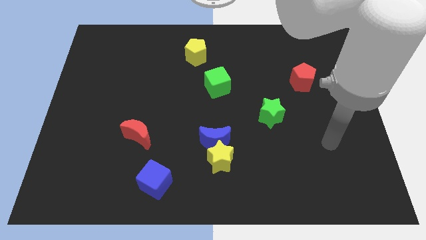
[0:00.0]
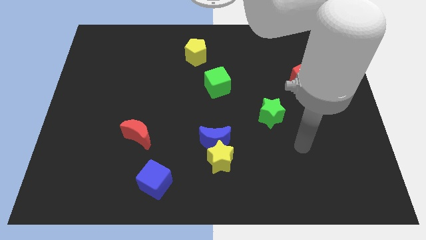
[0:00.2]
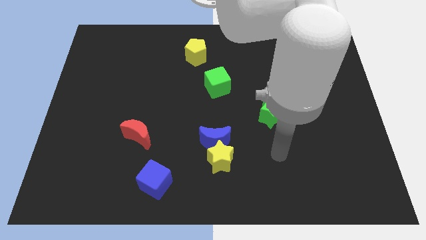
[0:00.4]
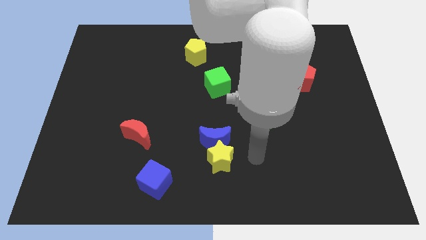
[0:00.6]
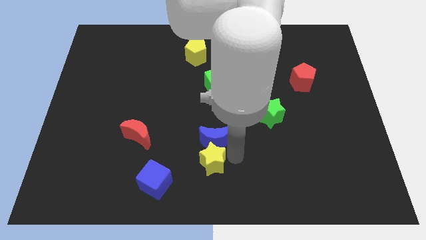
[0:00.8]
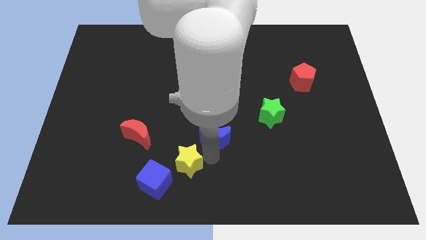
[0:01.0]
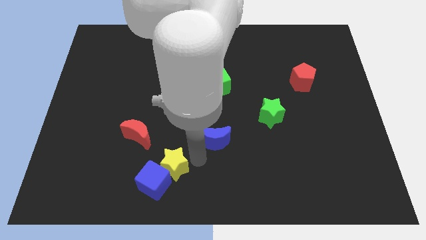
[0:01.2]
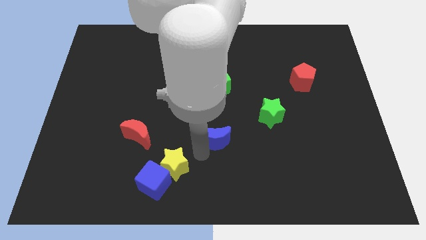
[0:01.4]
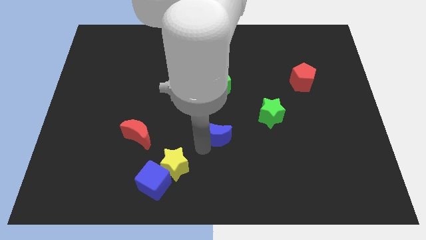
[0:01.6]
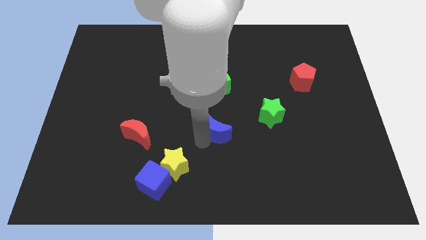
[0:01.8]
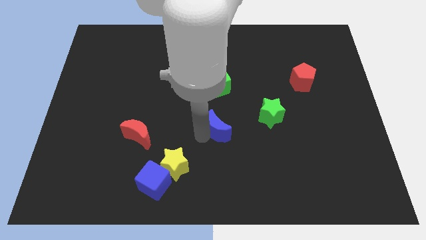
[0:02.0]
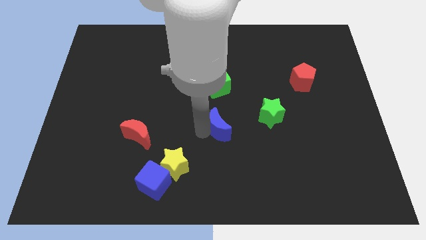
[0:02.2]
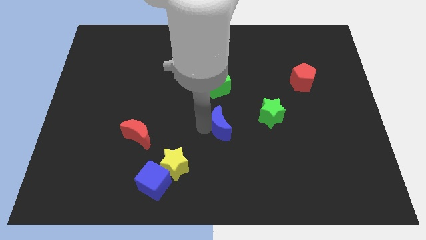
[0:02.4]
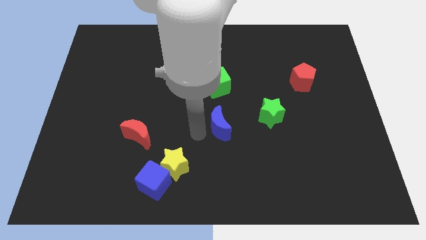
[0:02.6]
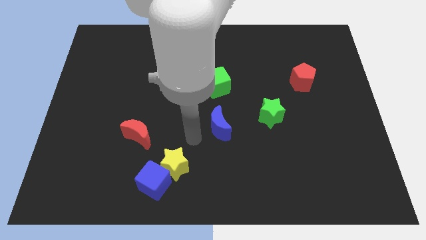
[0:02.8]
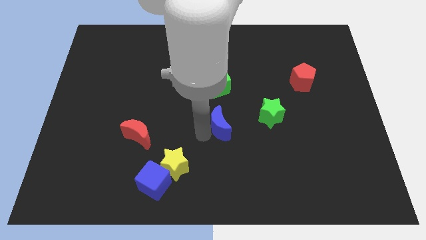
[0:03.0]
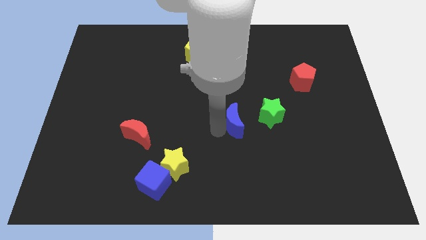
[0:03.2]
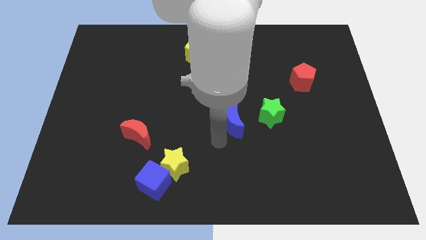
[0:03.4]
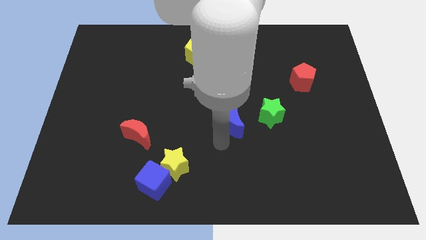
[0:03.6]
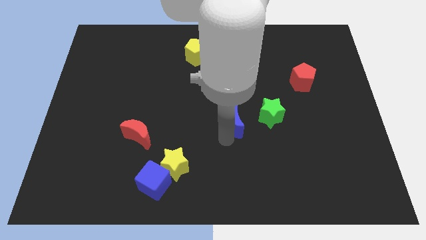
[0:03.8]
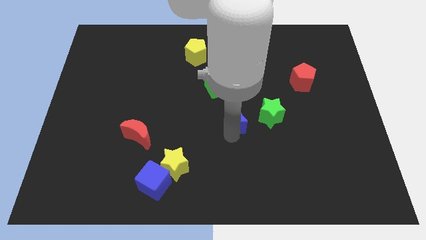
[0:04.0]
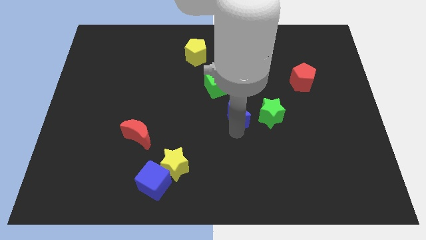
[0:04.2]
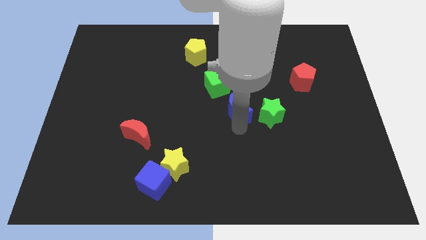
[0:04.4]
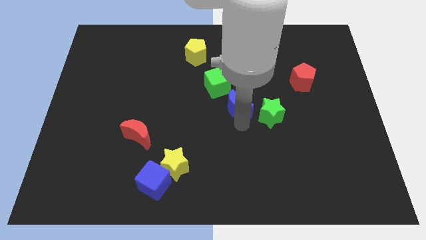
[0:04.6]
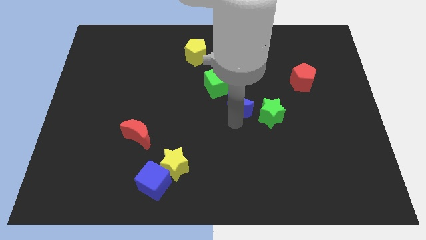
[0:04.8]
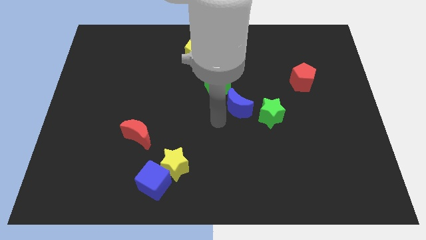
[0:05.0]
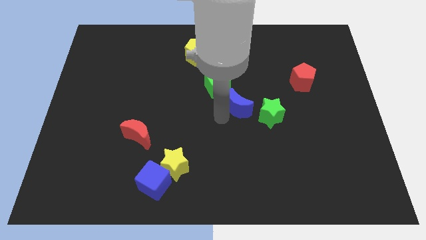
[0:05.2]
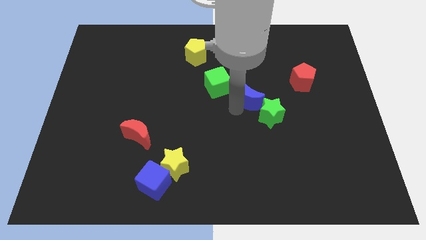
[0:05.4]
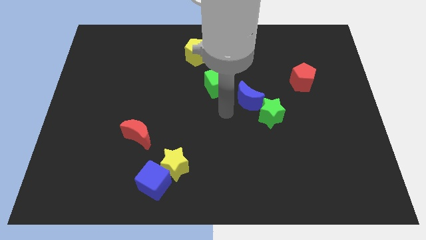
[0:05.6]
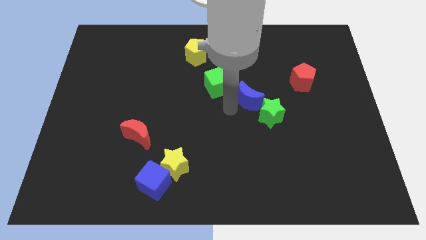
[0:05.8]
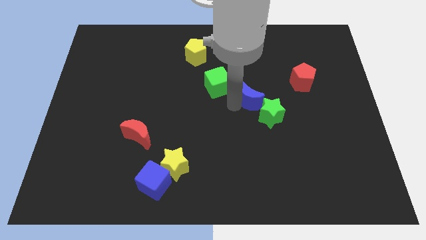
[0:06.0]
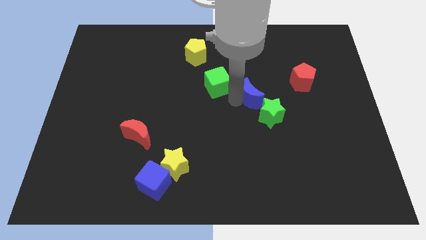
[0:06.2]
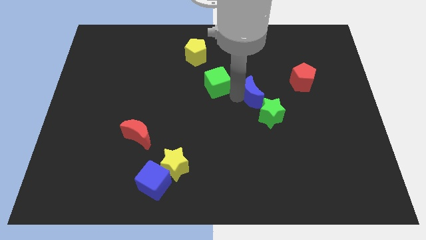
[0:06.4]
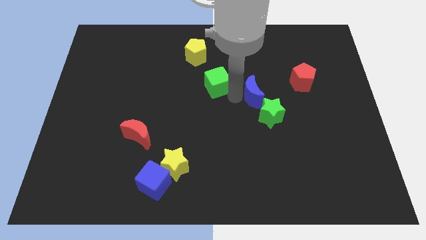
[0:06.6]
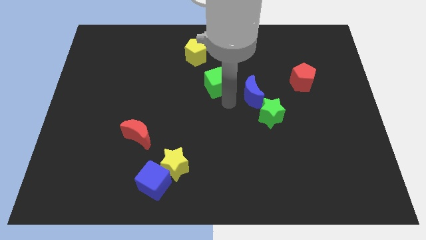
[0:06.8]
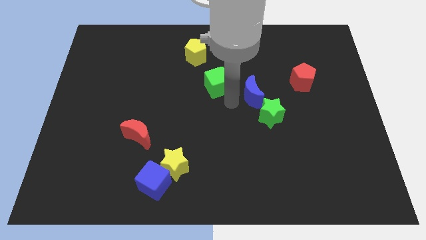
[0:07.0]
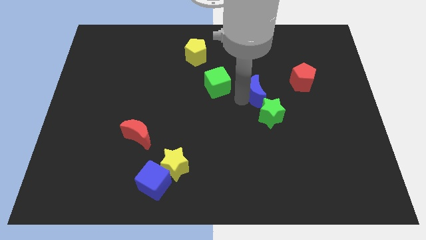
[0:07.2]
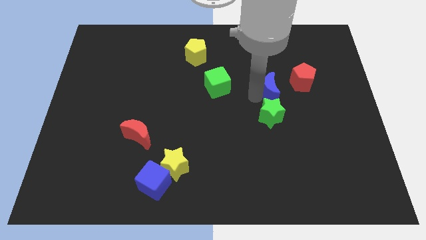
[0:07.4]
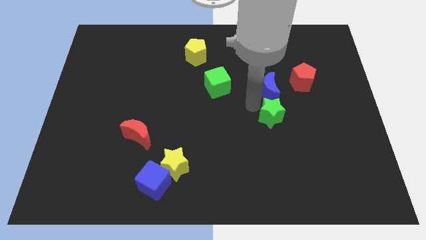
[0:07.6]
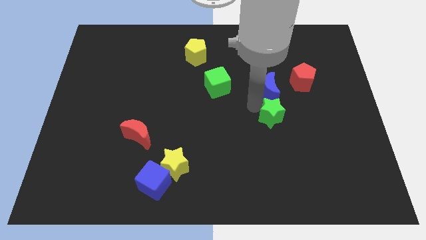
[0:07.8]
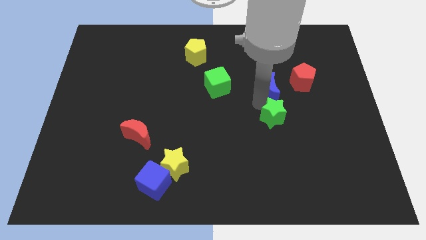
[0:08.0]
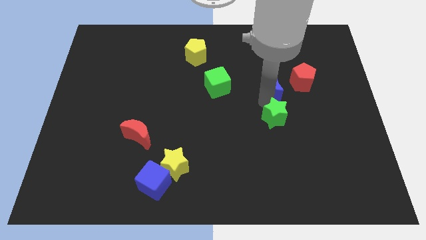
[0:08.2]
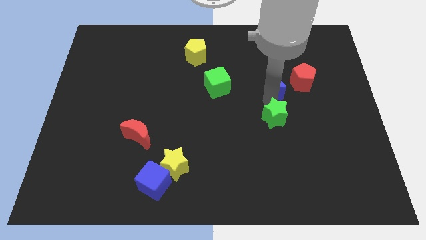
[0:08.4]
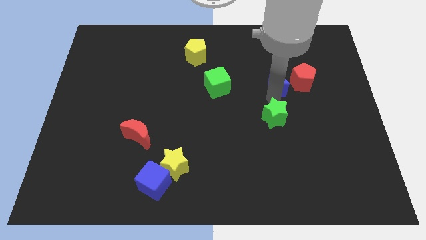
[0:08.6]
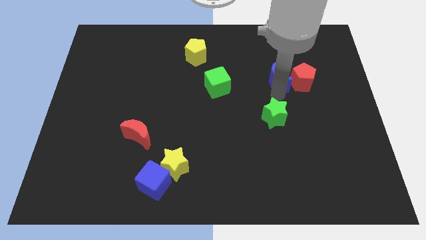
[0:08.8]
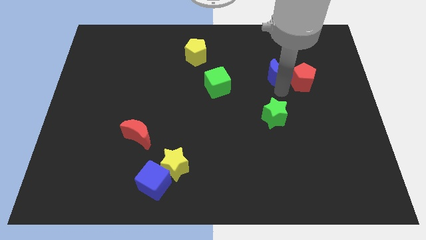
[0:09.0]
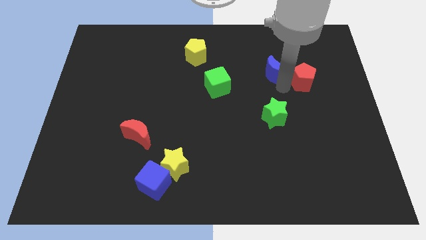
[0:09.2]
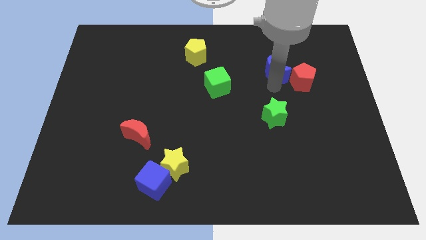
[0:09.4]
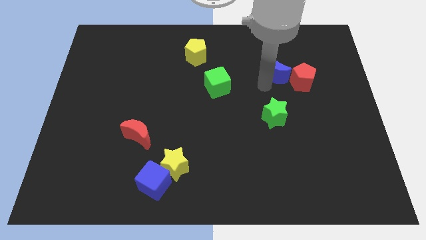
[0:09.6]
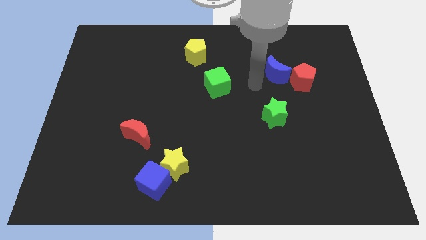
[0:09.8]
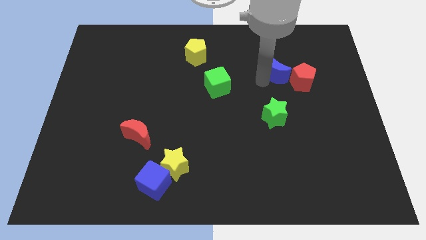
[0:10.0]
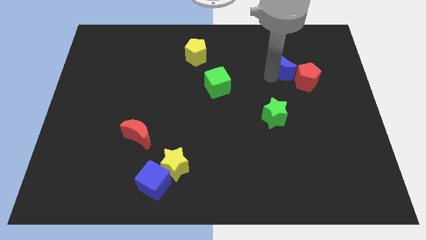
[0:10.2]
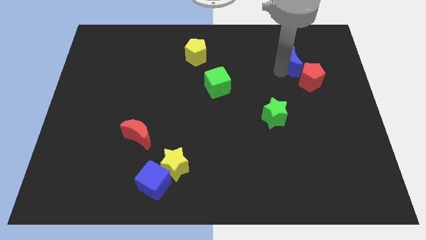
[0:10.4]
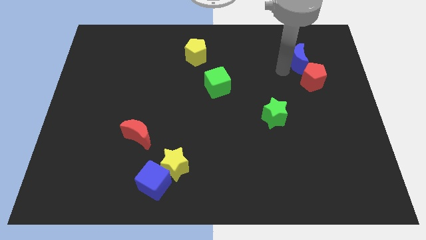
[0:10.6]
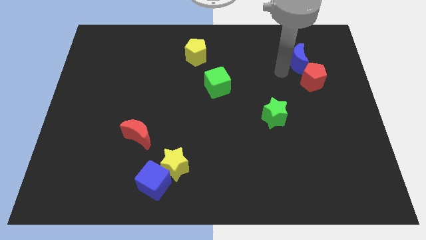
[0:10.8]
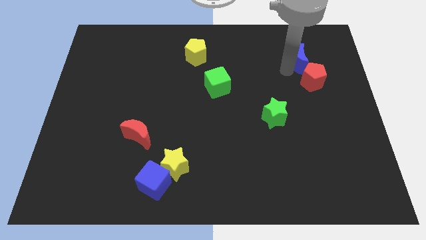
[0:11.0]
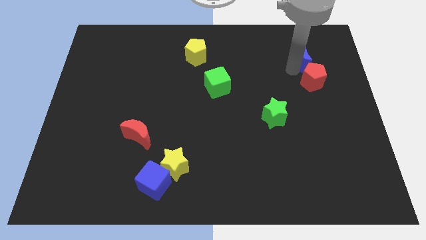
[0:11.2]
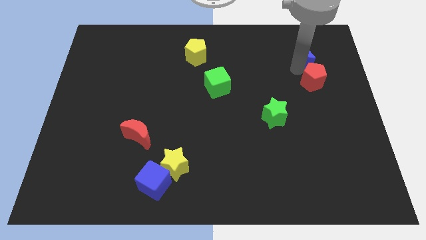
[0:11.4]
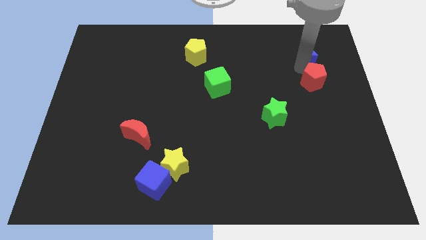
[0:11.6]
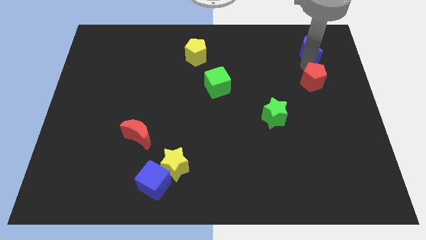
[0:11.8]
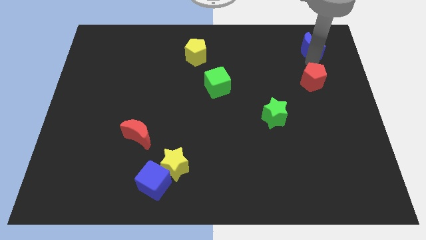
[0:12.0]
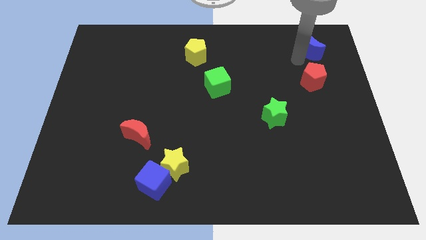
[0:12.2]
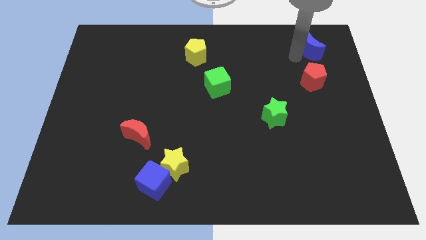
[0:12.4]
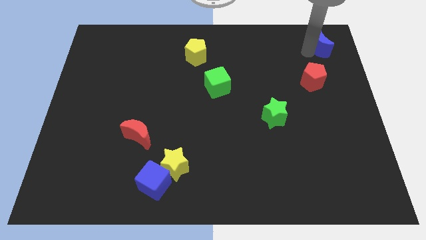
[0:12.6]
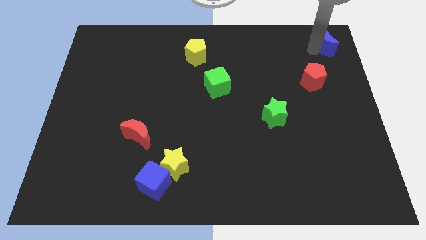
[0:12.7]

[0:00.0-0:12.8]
move the blue moon to the top right of the board
